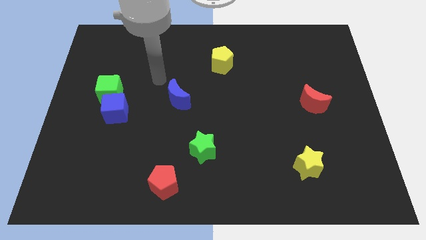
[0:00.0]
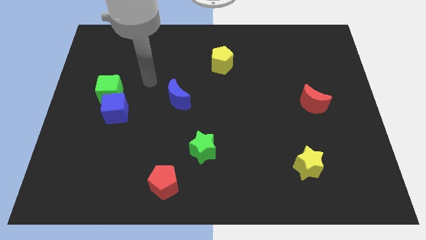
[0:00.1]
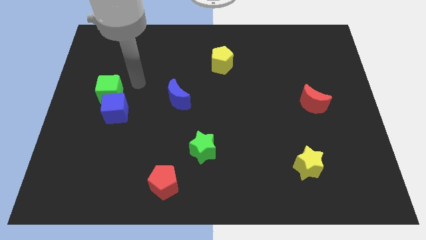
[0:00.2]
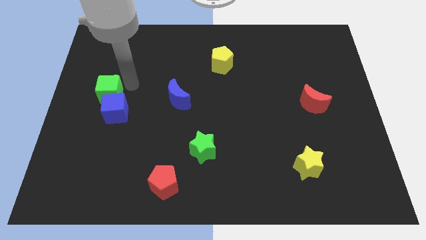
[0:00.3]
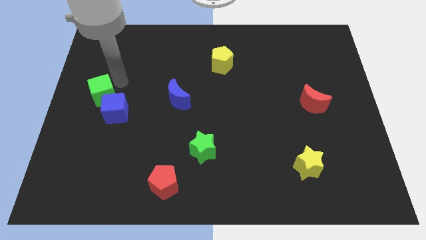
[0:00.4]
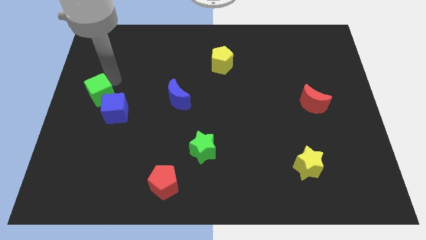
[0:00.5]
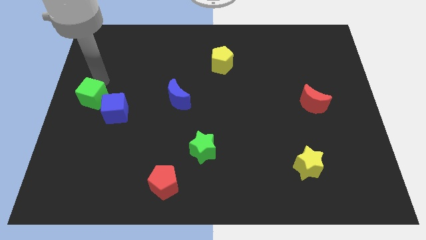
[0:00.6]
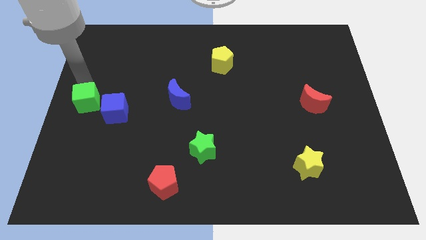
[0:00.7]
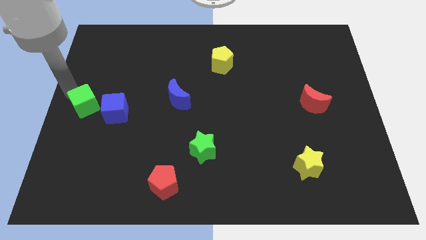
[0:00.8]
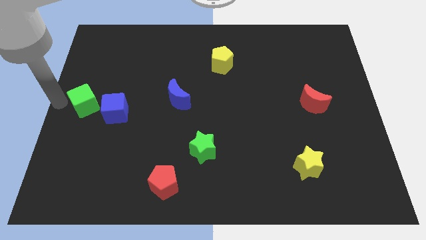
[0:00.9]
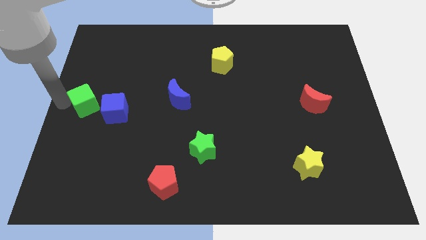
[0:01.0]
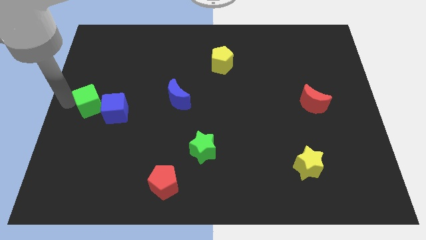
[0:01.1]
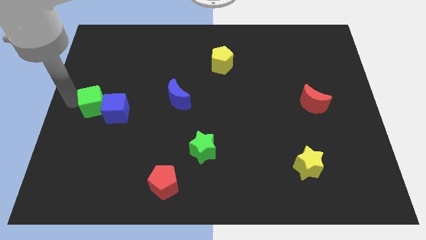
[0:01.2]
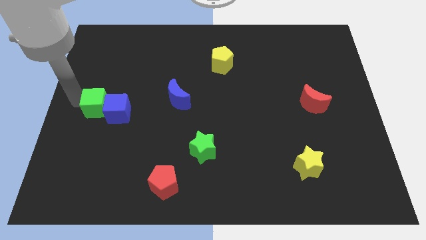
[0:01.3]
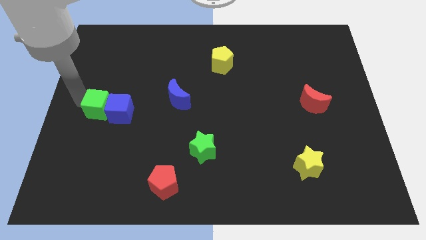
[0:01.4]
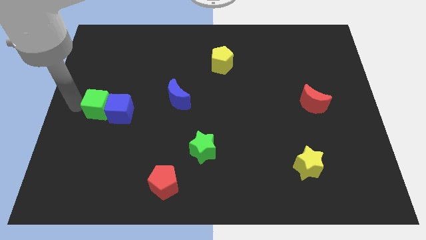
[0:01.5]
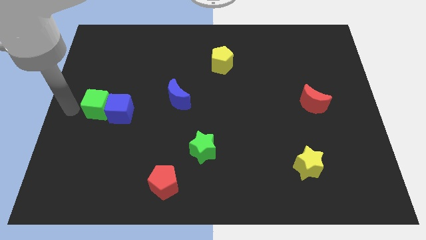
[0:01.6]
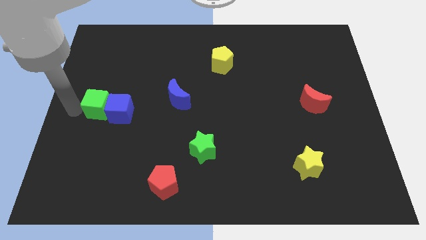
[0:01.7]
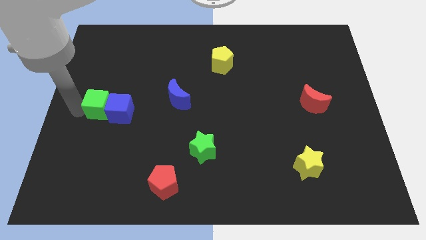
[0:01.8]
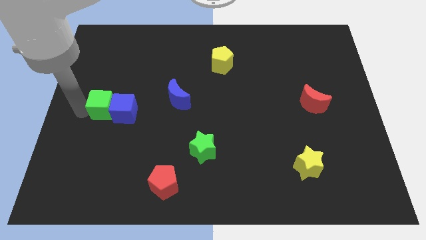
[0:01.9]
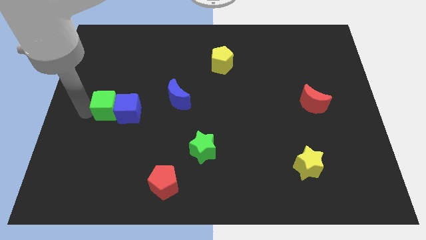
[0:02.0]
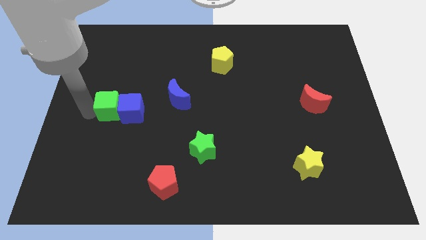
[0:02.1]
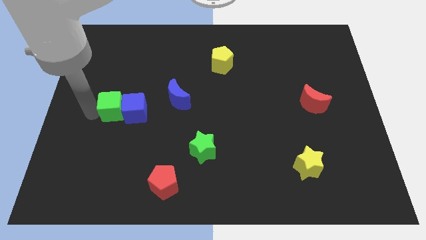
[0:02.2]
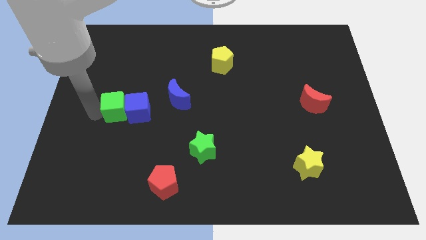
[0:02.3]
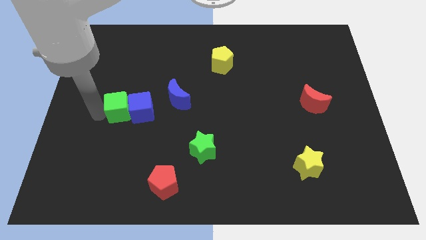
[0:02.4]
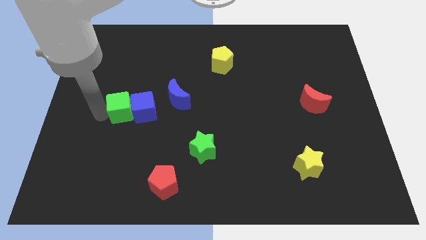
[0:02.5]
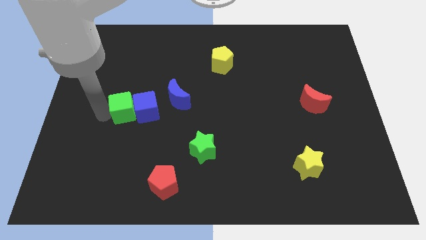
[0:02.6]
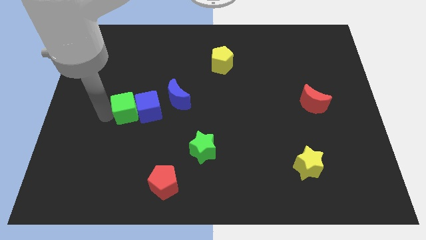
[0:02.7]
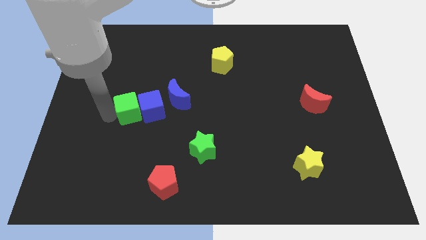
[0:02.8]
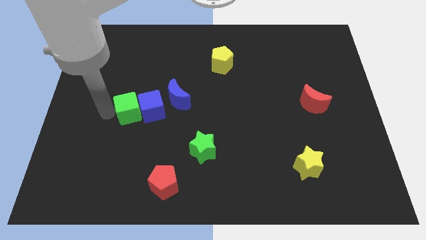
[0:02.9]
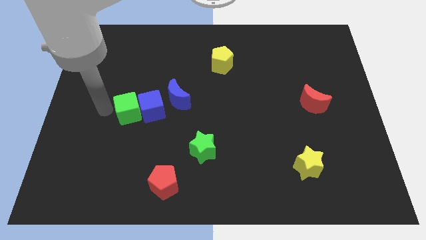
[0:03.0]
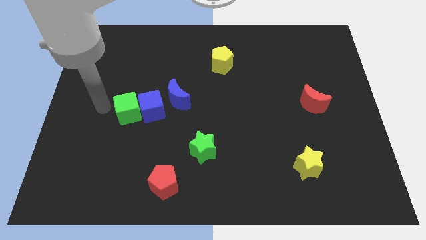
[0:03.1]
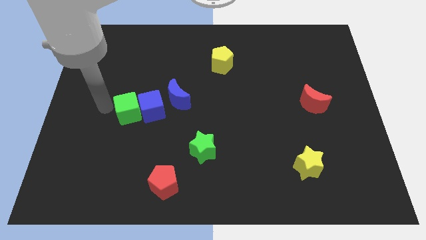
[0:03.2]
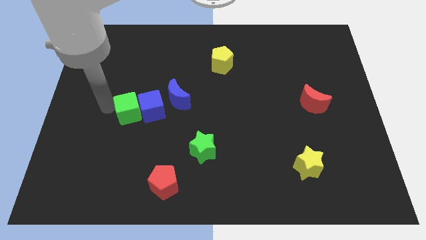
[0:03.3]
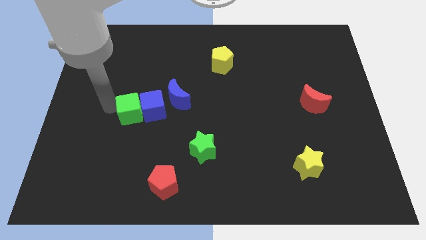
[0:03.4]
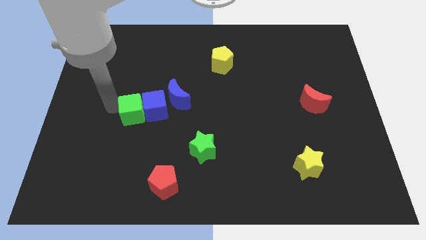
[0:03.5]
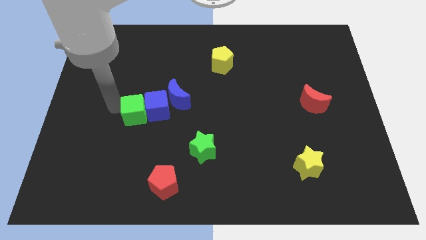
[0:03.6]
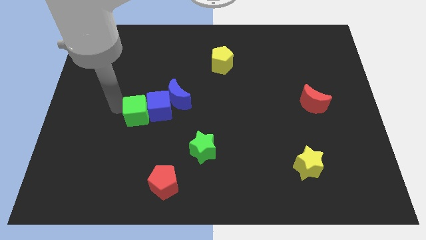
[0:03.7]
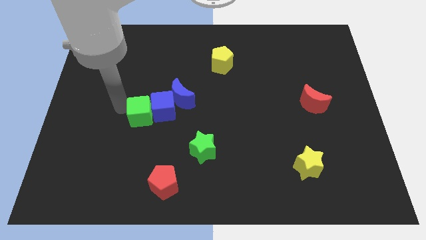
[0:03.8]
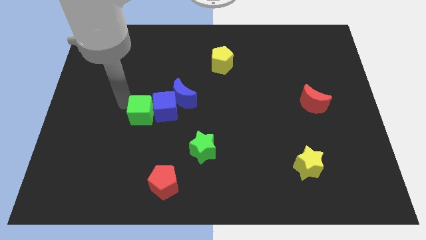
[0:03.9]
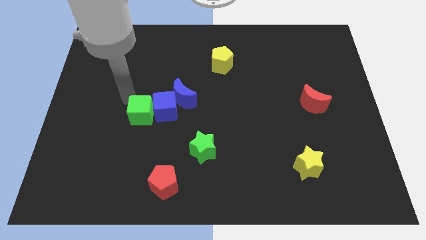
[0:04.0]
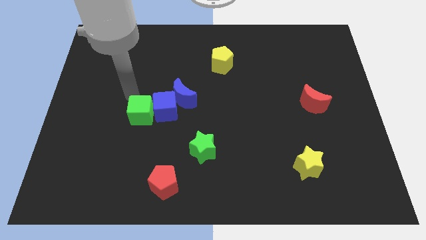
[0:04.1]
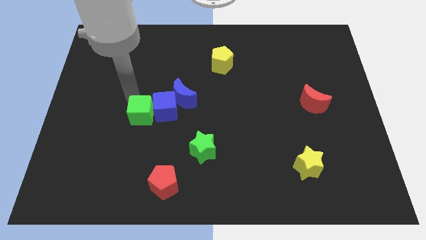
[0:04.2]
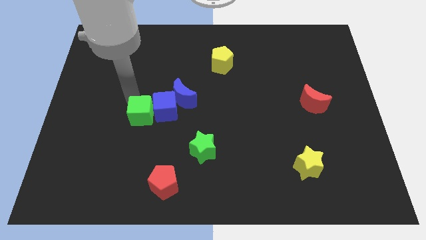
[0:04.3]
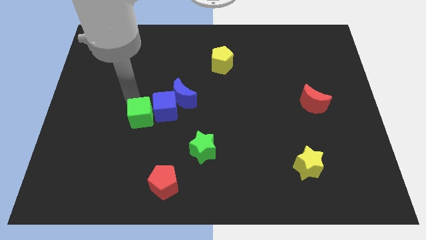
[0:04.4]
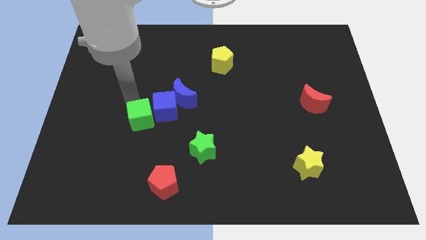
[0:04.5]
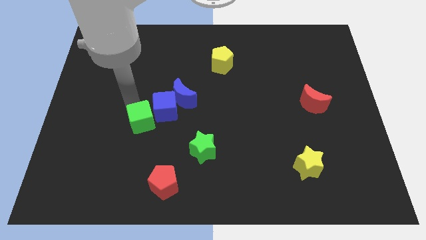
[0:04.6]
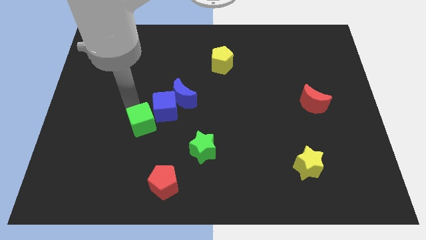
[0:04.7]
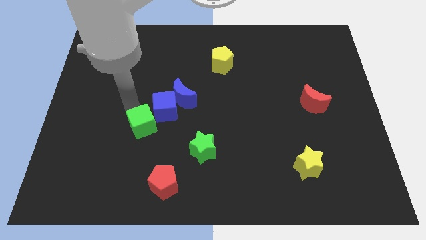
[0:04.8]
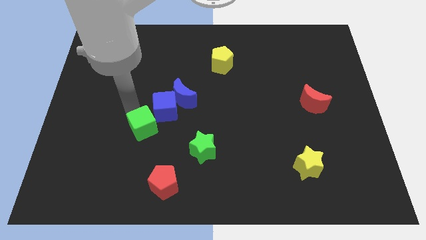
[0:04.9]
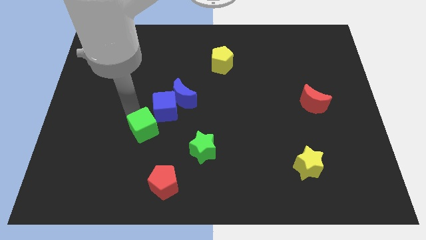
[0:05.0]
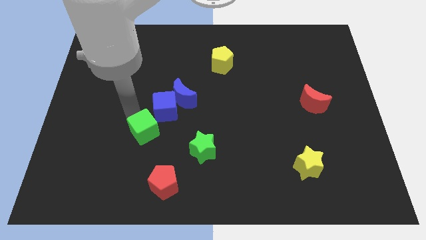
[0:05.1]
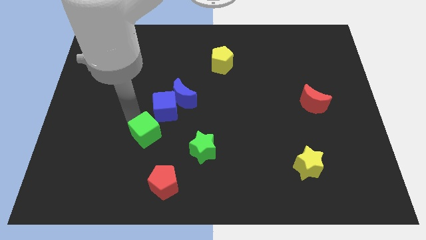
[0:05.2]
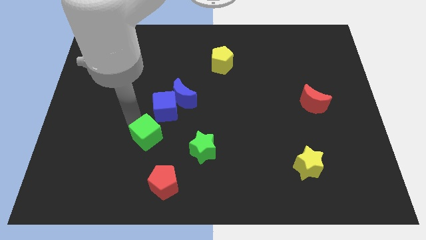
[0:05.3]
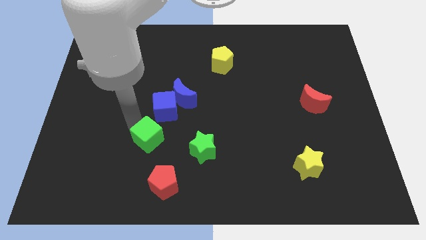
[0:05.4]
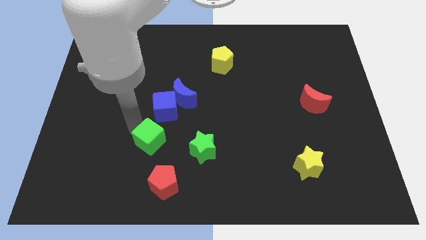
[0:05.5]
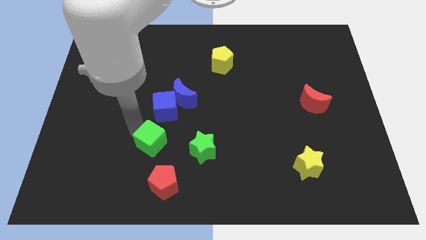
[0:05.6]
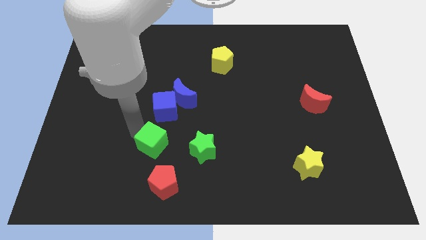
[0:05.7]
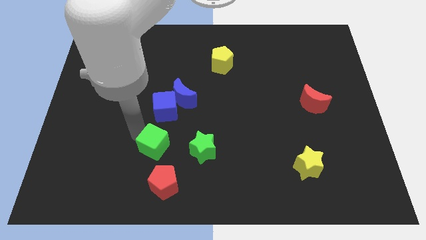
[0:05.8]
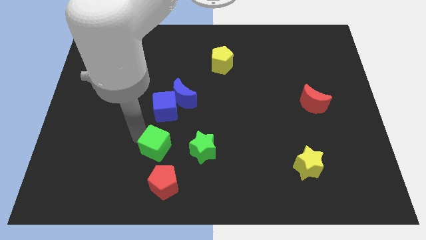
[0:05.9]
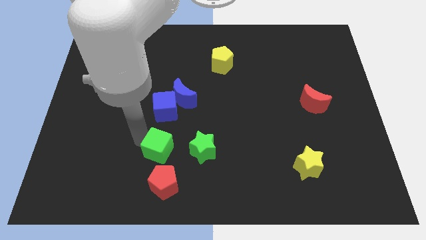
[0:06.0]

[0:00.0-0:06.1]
move the green cube down and right

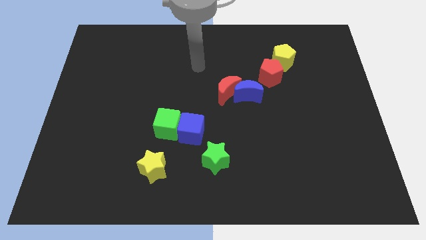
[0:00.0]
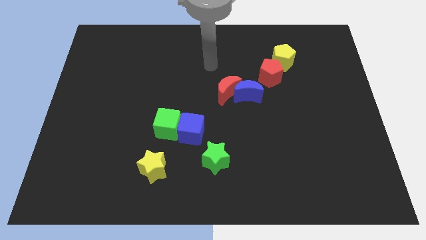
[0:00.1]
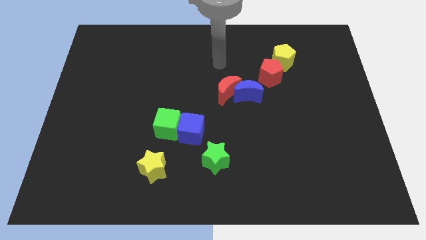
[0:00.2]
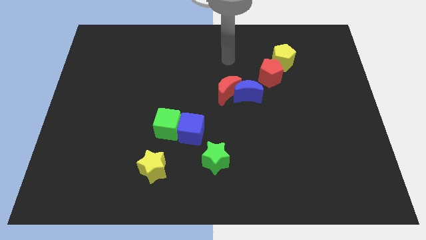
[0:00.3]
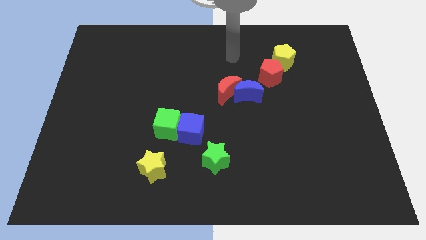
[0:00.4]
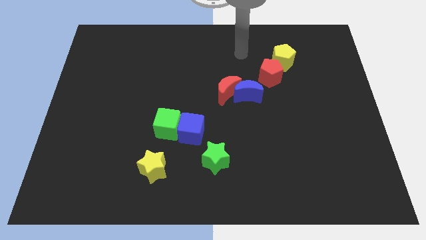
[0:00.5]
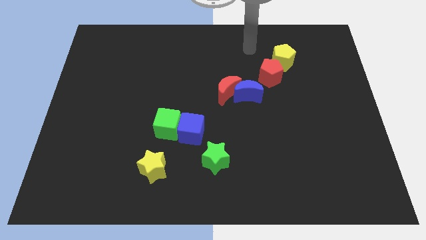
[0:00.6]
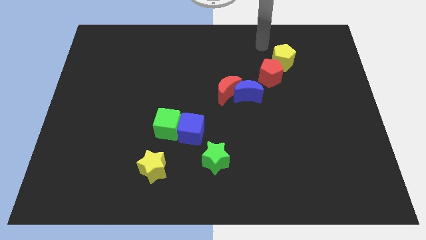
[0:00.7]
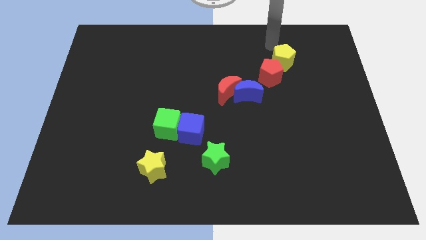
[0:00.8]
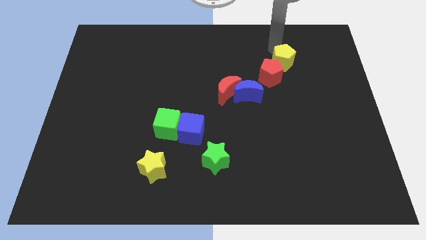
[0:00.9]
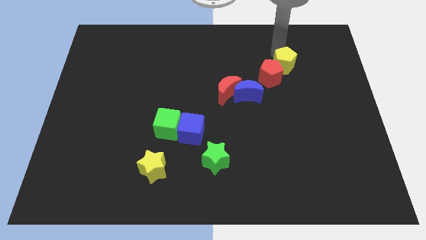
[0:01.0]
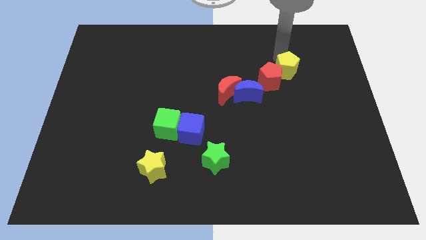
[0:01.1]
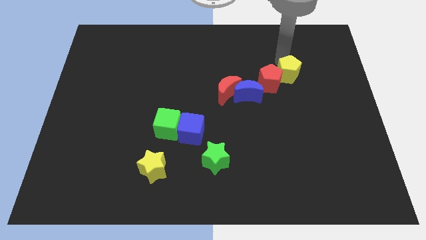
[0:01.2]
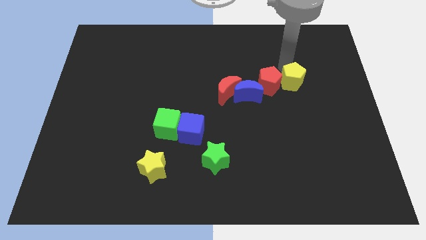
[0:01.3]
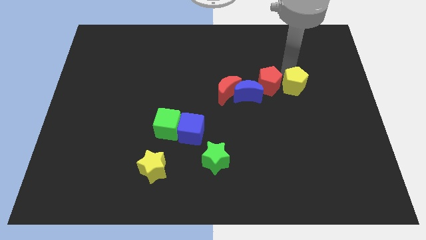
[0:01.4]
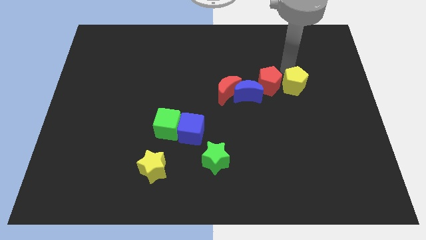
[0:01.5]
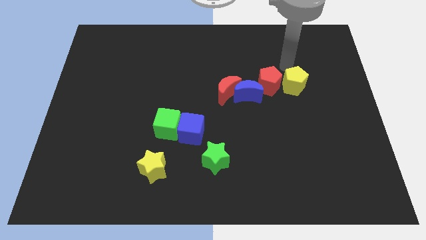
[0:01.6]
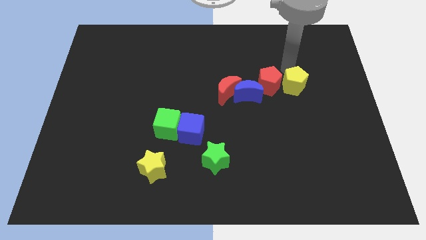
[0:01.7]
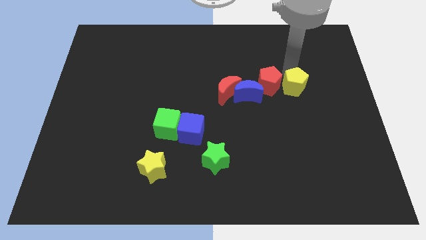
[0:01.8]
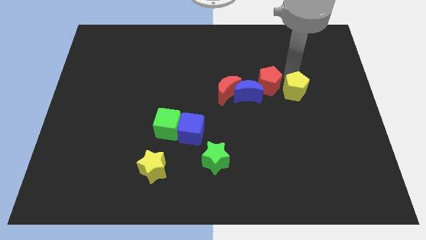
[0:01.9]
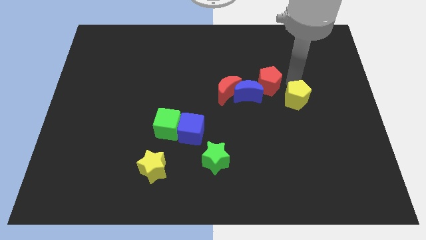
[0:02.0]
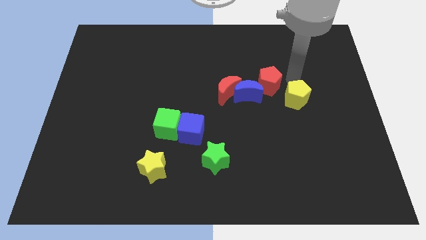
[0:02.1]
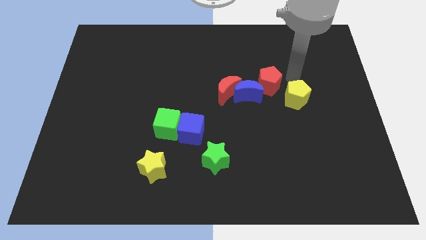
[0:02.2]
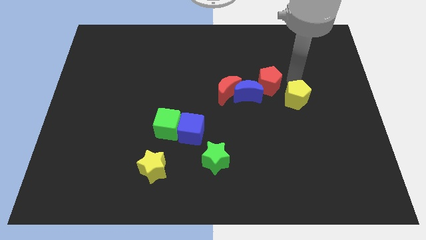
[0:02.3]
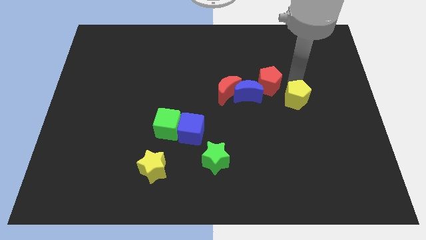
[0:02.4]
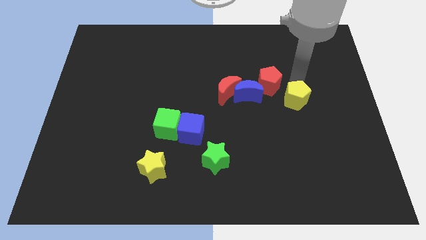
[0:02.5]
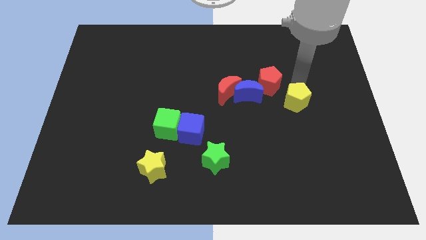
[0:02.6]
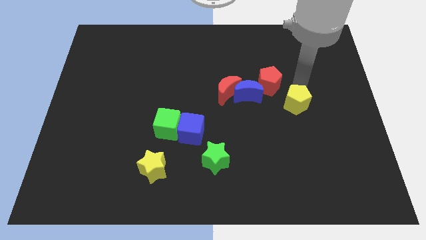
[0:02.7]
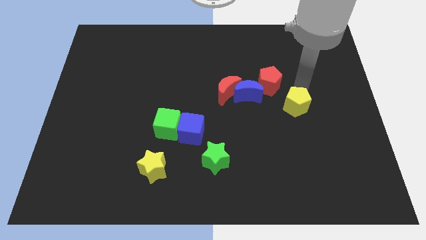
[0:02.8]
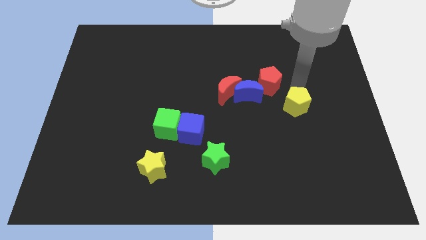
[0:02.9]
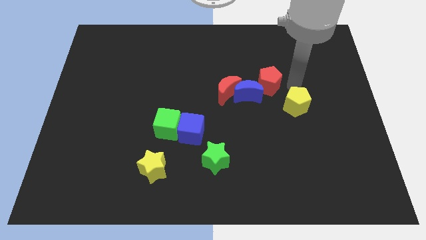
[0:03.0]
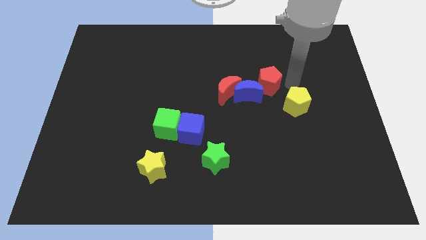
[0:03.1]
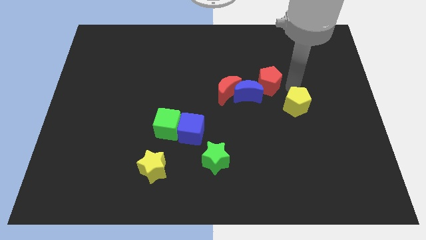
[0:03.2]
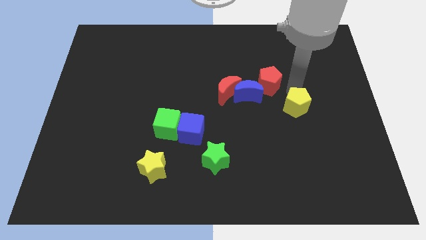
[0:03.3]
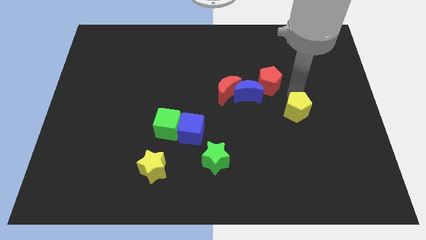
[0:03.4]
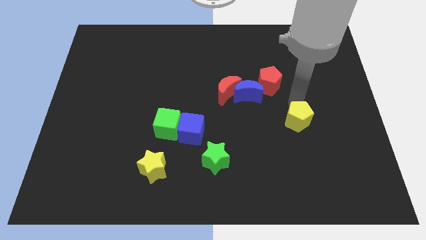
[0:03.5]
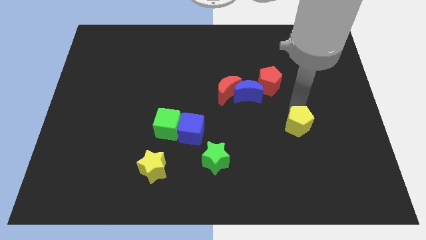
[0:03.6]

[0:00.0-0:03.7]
move the yellow pentagon down
